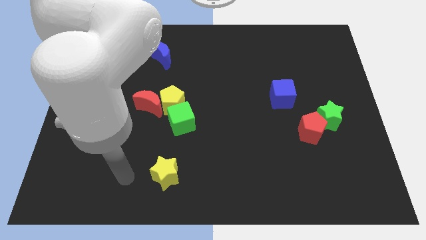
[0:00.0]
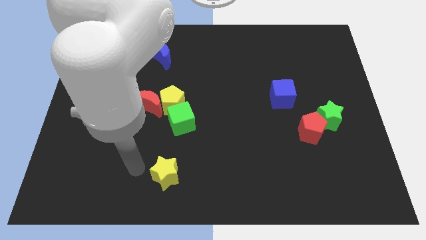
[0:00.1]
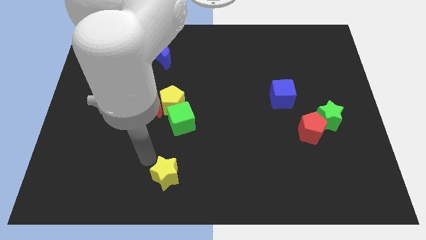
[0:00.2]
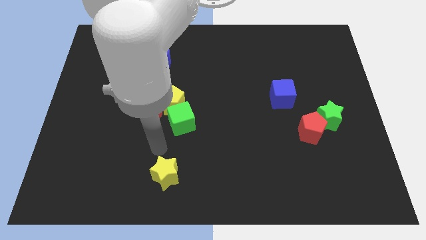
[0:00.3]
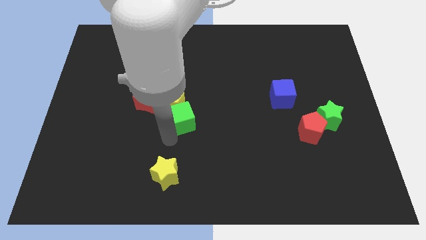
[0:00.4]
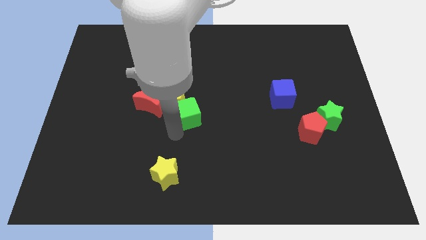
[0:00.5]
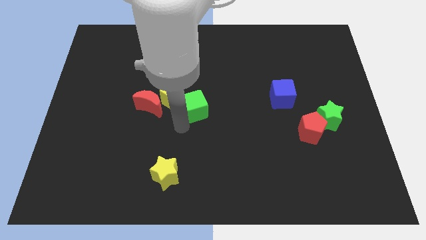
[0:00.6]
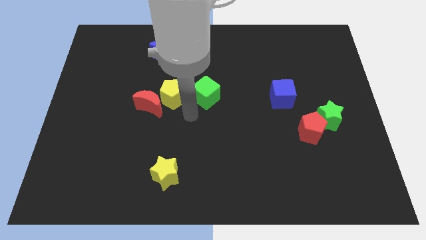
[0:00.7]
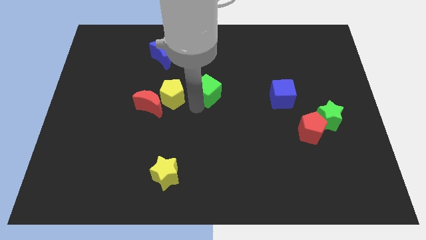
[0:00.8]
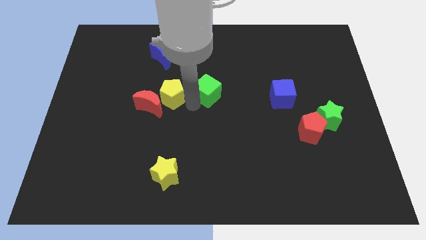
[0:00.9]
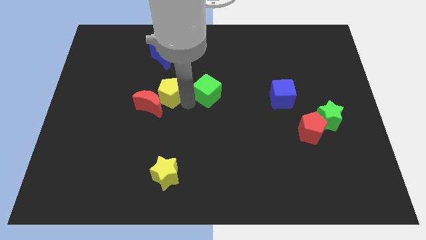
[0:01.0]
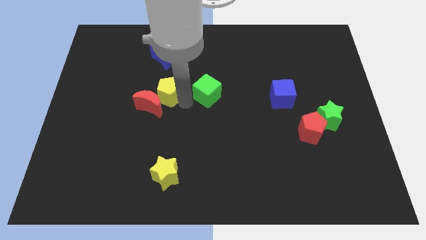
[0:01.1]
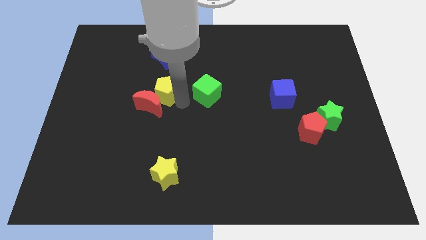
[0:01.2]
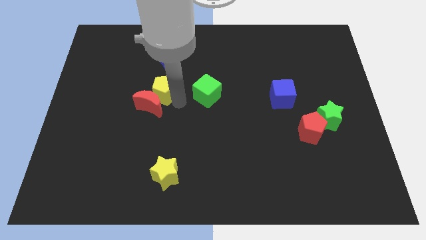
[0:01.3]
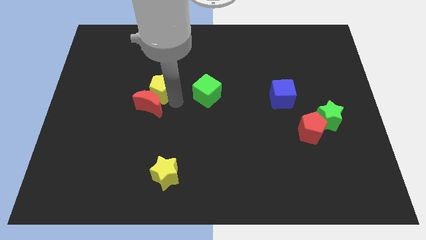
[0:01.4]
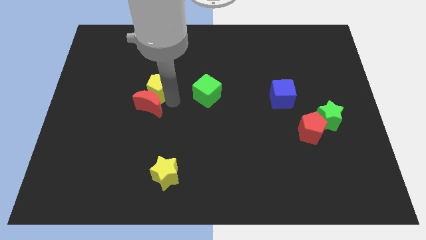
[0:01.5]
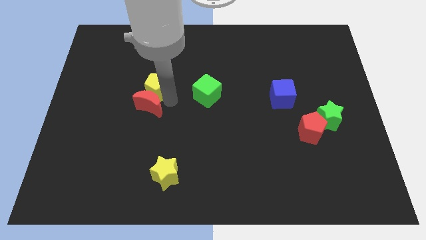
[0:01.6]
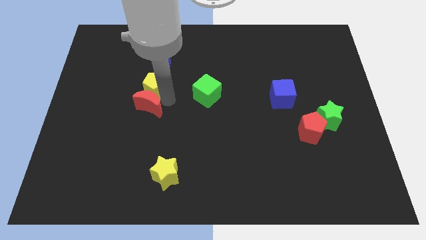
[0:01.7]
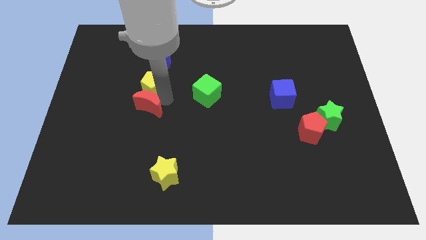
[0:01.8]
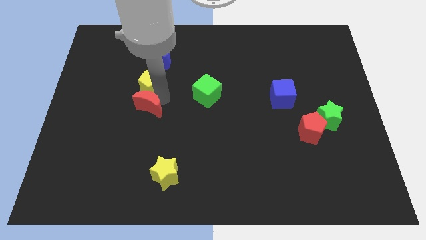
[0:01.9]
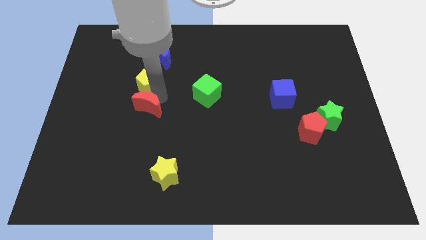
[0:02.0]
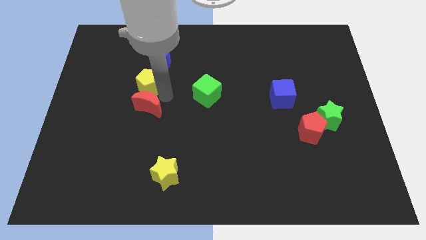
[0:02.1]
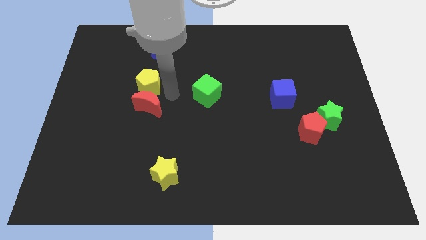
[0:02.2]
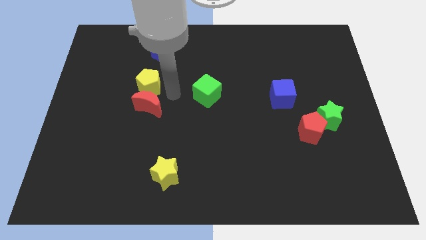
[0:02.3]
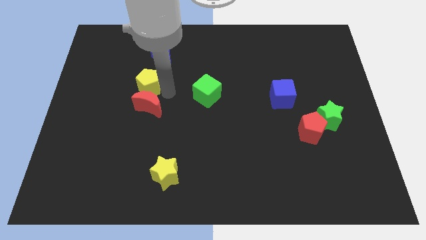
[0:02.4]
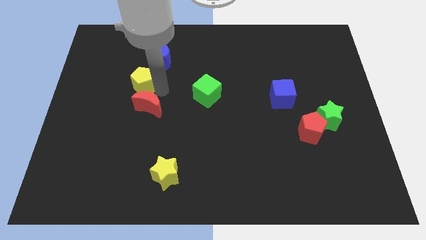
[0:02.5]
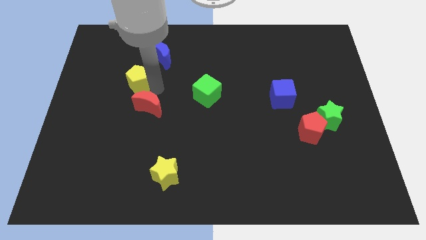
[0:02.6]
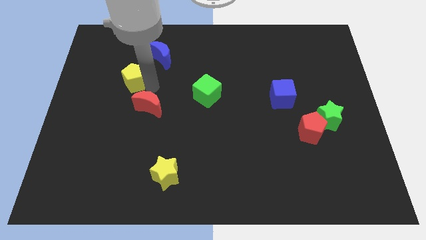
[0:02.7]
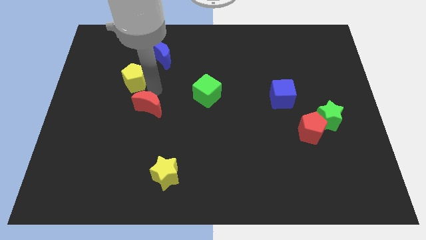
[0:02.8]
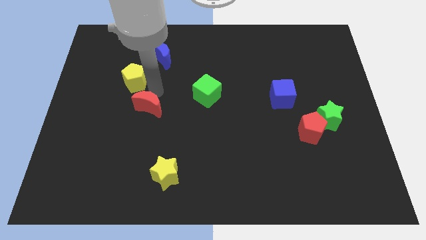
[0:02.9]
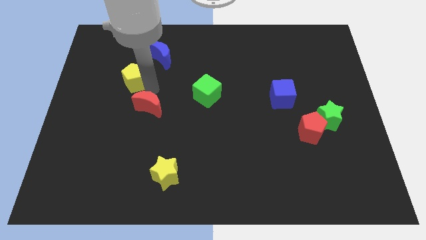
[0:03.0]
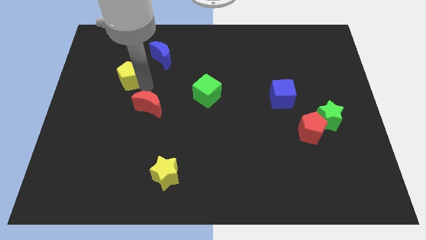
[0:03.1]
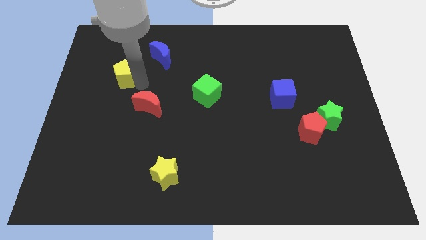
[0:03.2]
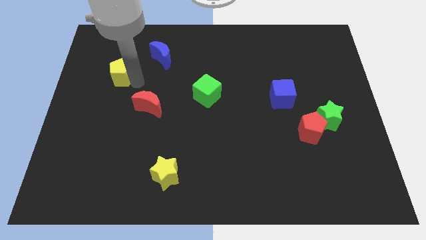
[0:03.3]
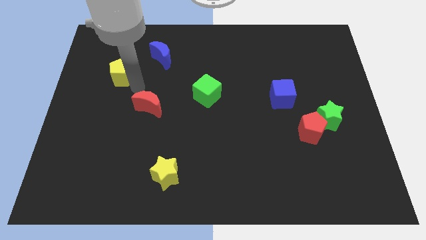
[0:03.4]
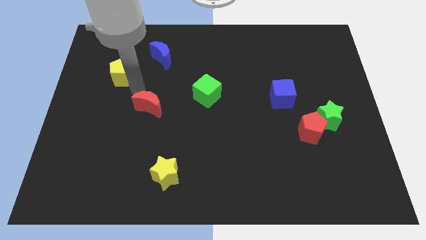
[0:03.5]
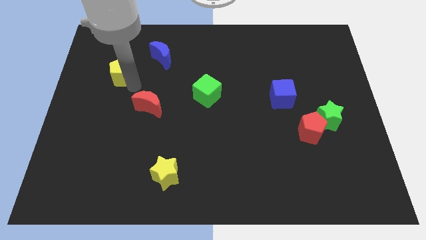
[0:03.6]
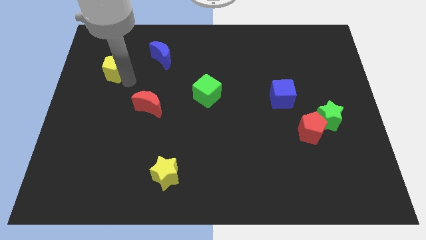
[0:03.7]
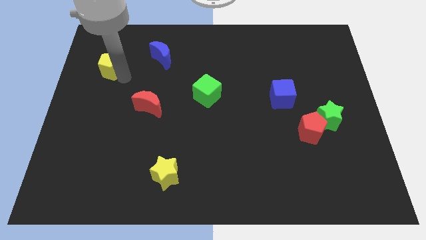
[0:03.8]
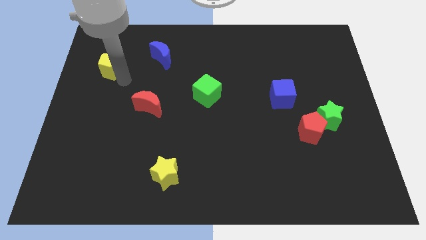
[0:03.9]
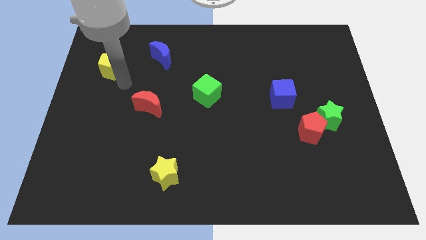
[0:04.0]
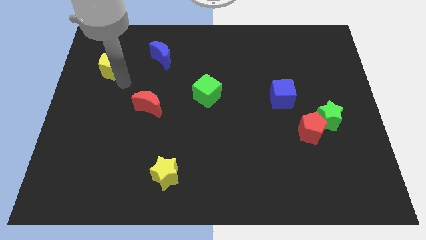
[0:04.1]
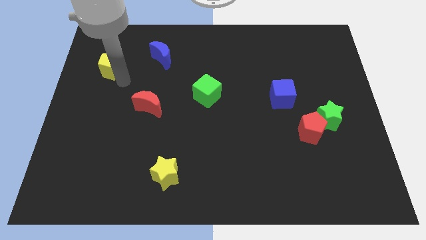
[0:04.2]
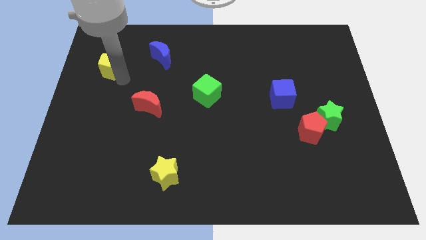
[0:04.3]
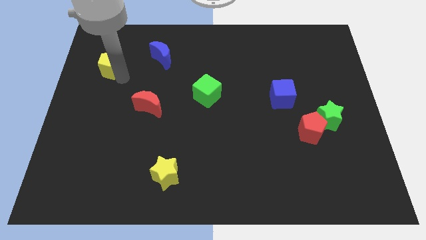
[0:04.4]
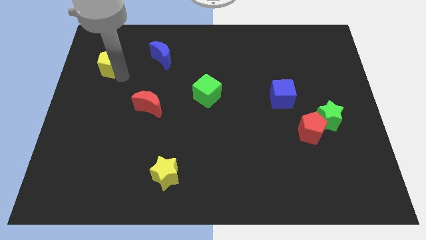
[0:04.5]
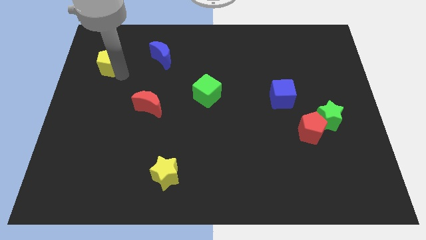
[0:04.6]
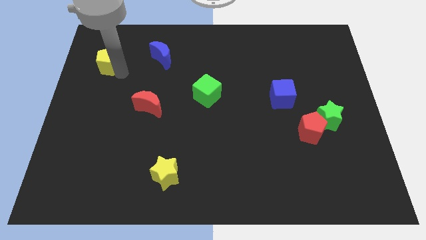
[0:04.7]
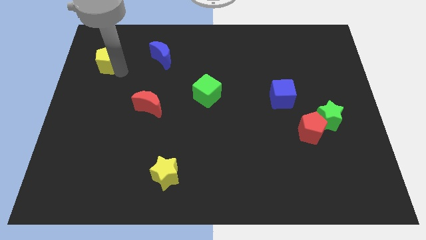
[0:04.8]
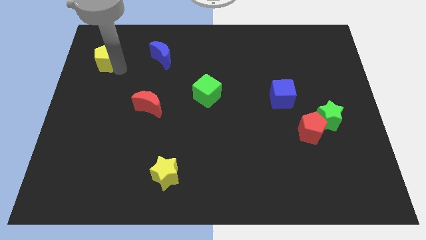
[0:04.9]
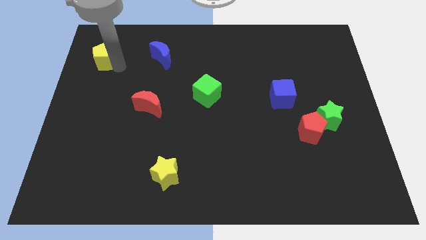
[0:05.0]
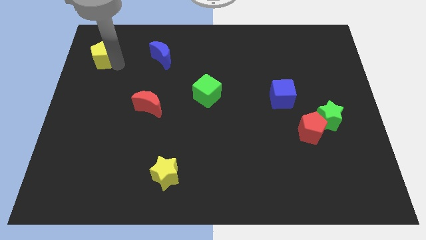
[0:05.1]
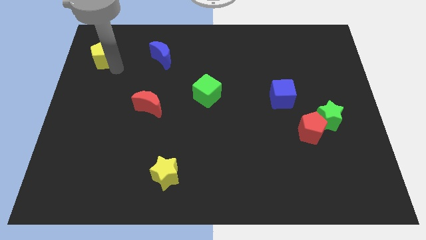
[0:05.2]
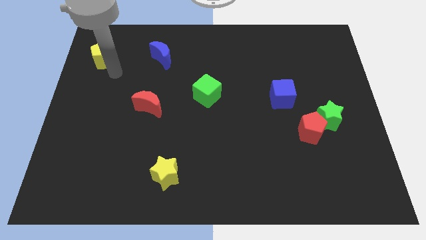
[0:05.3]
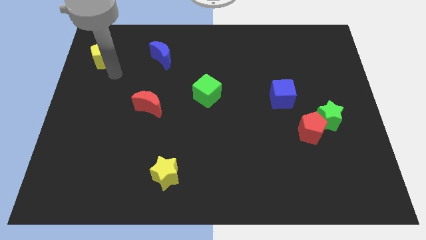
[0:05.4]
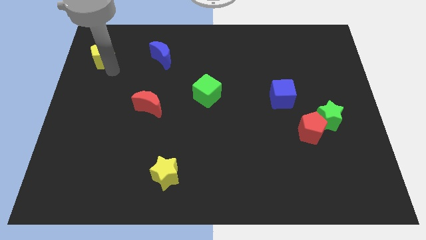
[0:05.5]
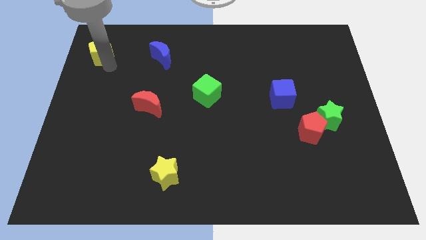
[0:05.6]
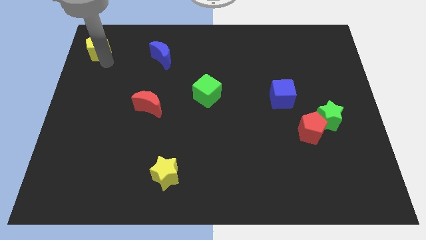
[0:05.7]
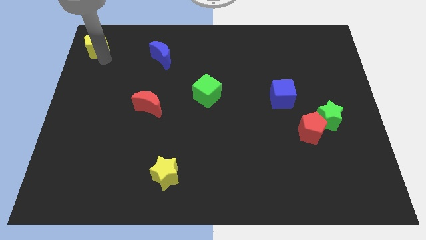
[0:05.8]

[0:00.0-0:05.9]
move the yellow pentagon to the top left corner

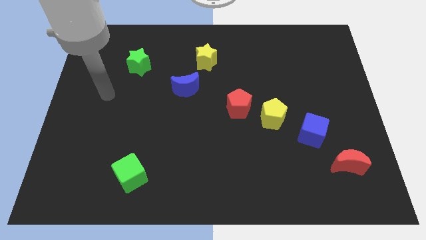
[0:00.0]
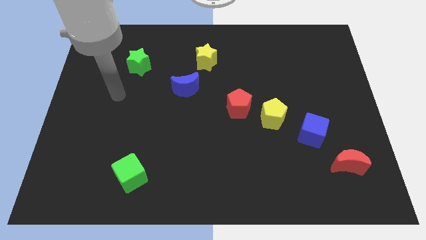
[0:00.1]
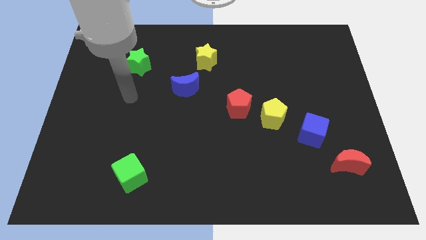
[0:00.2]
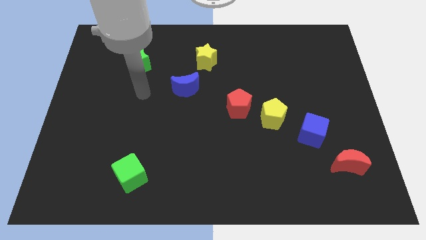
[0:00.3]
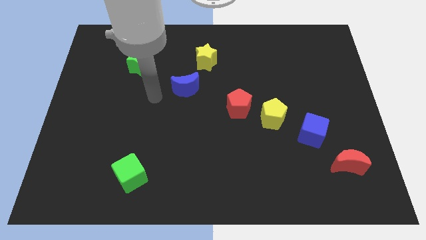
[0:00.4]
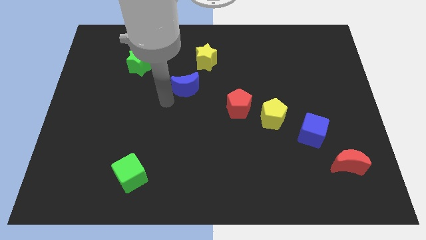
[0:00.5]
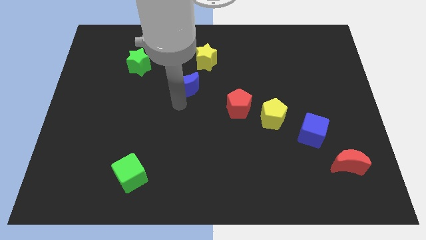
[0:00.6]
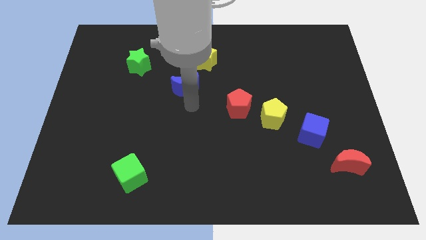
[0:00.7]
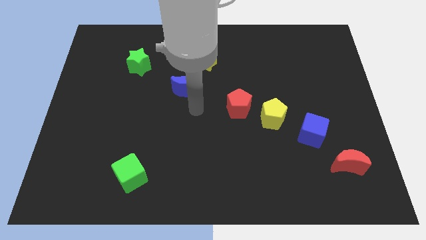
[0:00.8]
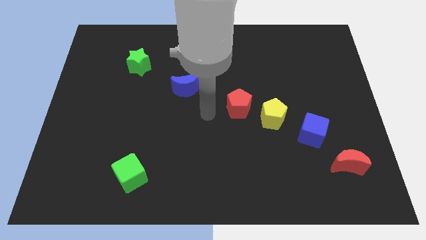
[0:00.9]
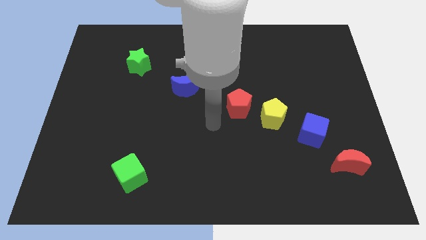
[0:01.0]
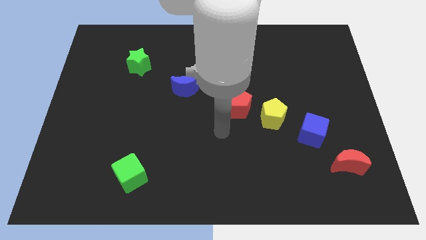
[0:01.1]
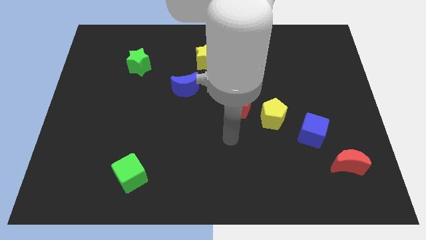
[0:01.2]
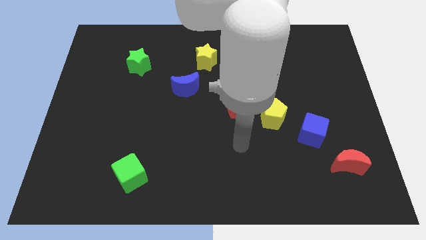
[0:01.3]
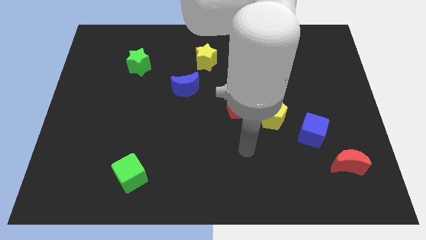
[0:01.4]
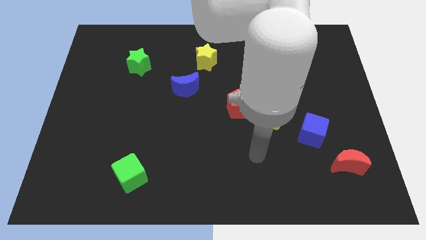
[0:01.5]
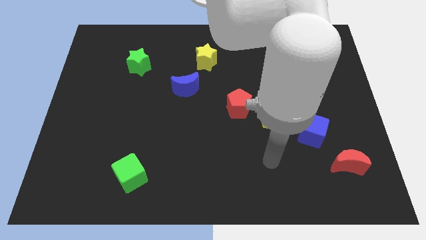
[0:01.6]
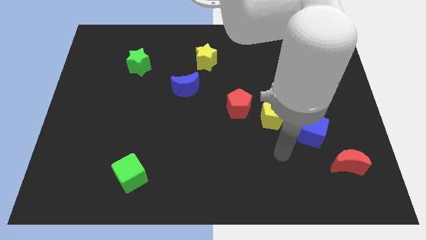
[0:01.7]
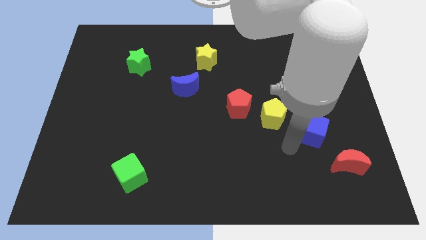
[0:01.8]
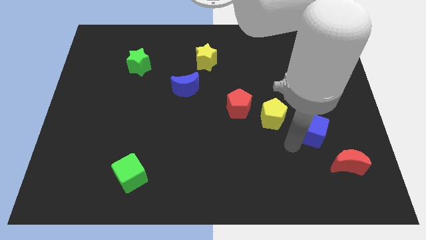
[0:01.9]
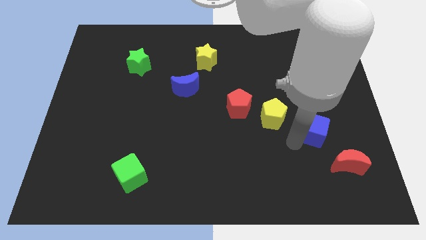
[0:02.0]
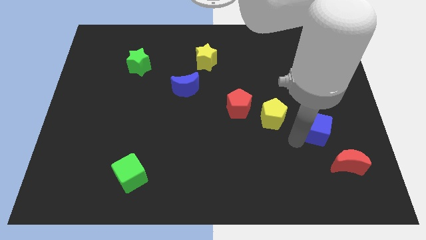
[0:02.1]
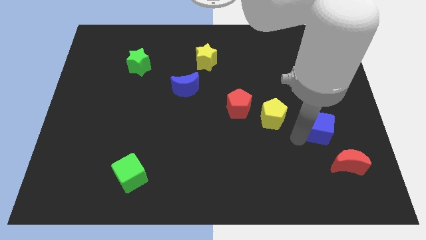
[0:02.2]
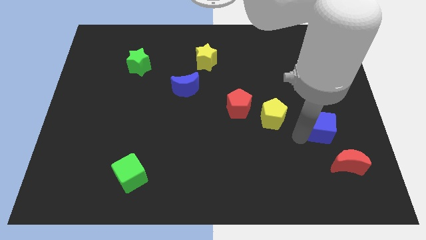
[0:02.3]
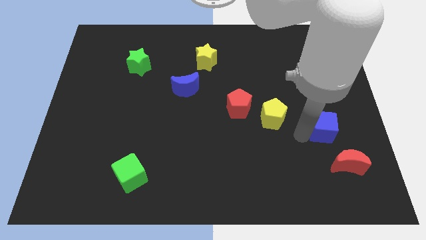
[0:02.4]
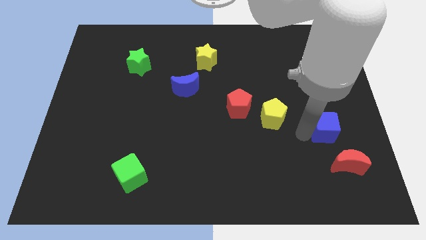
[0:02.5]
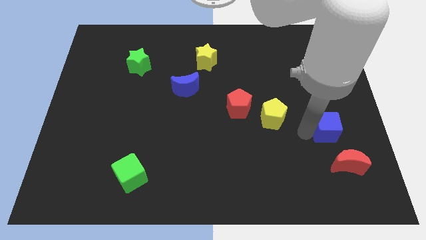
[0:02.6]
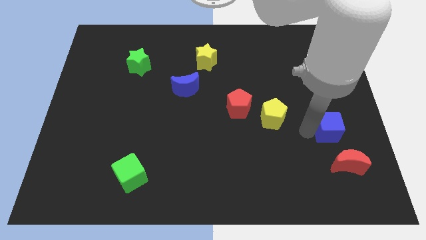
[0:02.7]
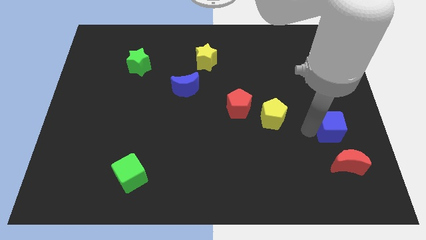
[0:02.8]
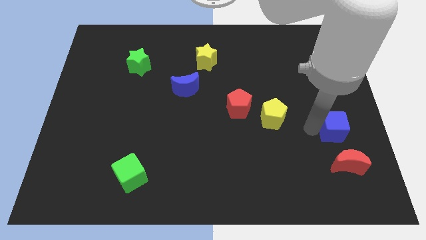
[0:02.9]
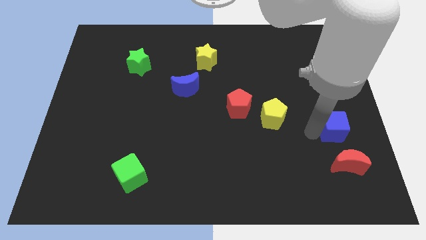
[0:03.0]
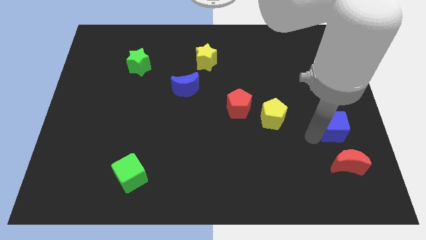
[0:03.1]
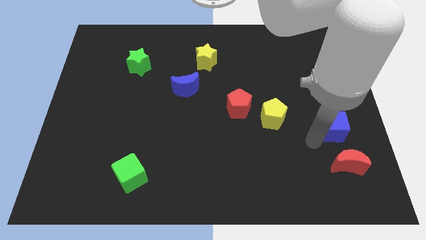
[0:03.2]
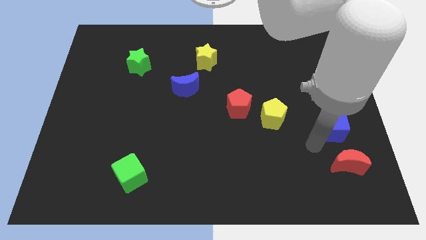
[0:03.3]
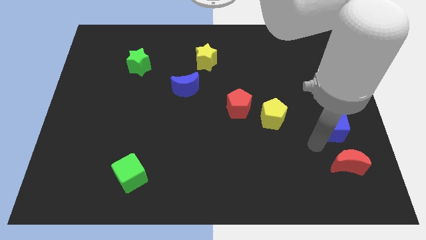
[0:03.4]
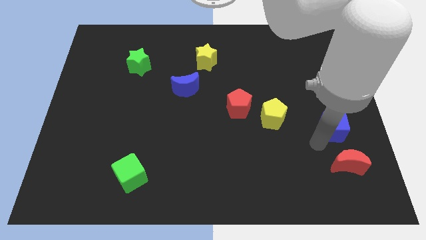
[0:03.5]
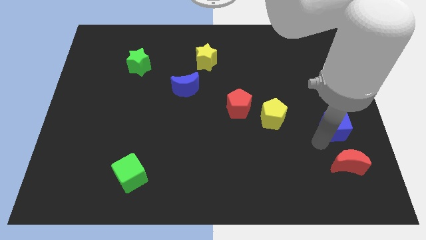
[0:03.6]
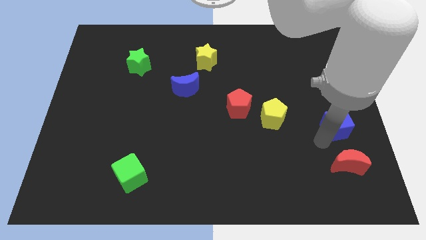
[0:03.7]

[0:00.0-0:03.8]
slide the blue cube to the right side of the board
